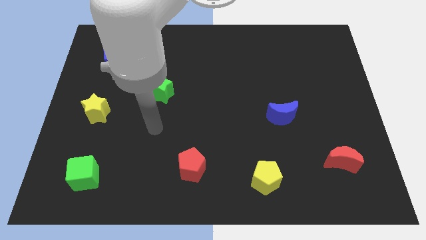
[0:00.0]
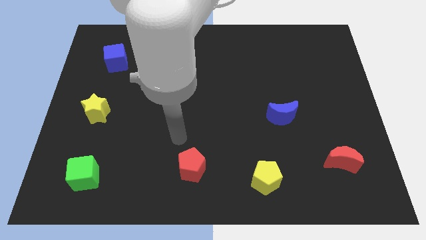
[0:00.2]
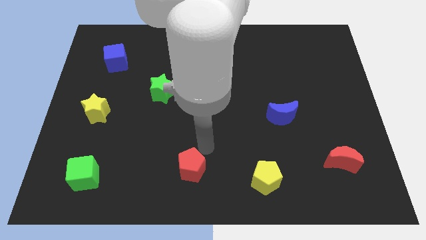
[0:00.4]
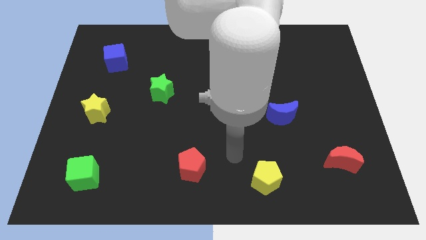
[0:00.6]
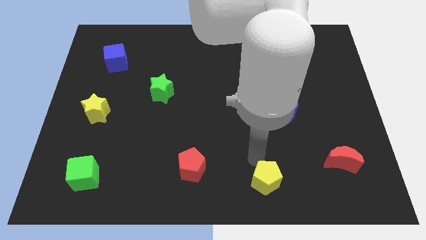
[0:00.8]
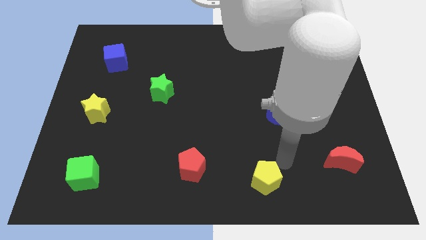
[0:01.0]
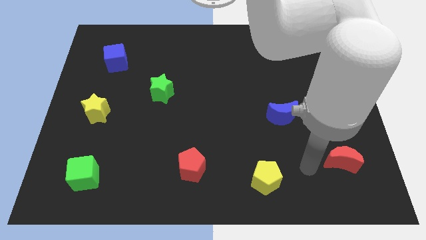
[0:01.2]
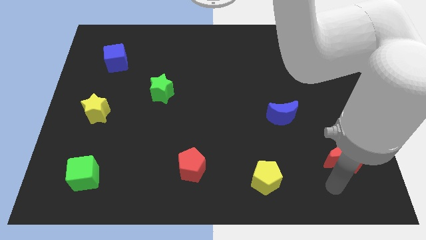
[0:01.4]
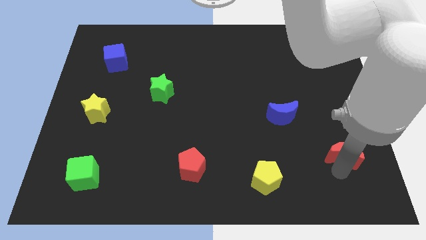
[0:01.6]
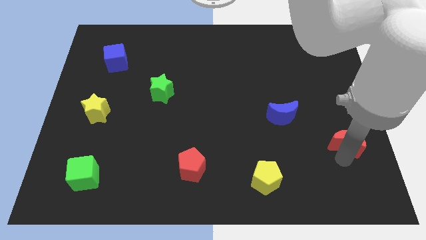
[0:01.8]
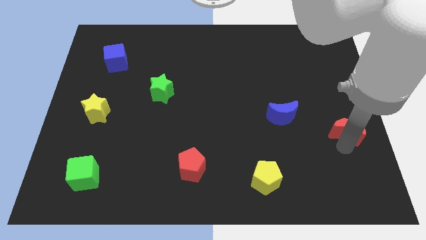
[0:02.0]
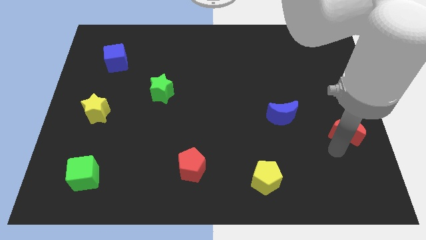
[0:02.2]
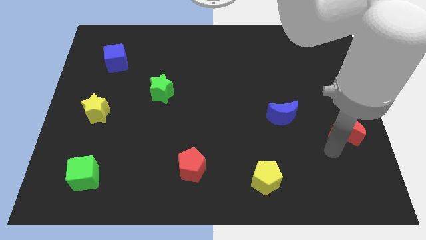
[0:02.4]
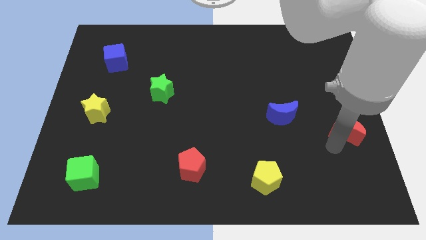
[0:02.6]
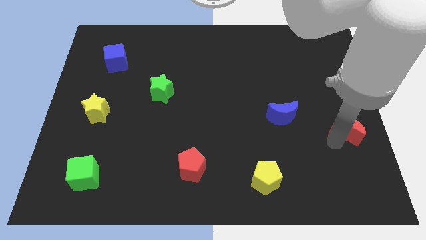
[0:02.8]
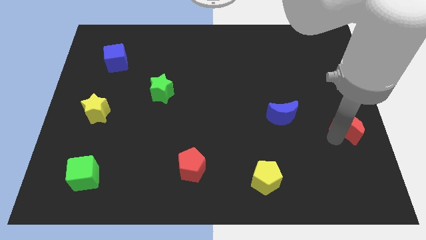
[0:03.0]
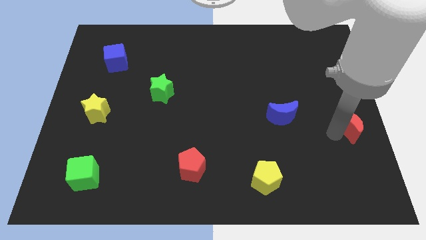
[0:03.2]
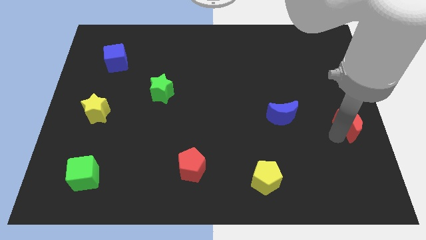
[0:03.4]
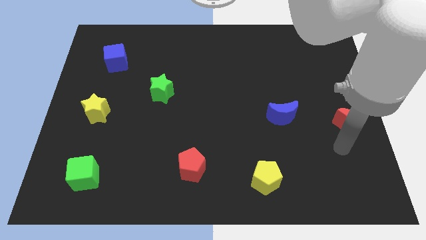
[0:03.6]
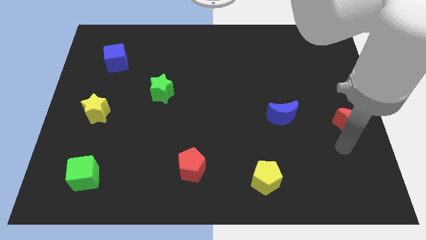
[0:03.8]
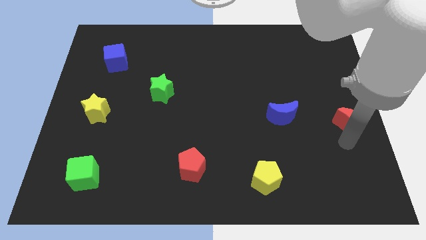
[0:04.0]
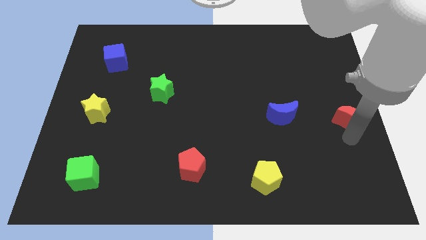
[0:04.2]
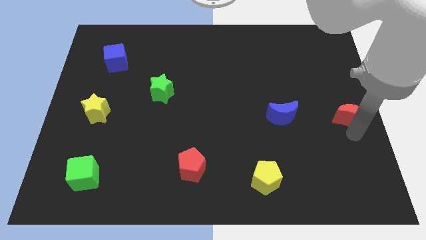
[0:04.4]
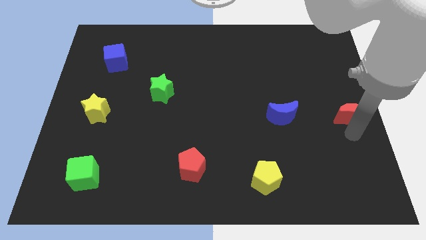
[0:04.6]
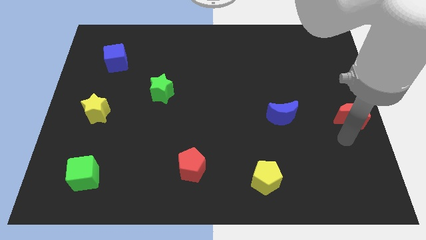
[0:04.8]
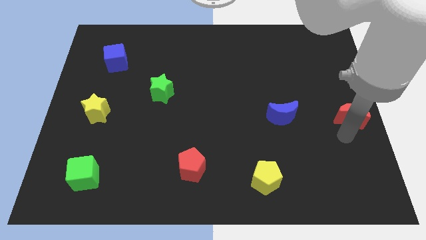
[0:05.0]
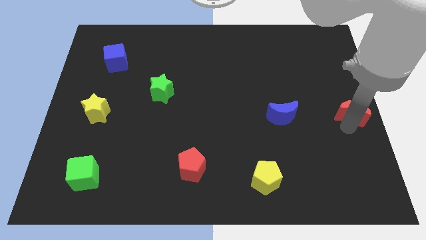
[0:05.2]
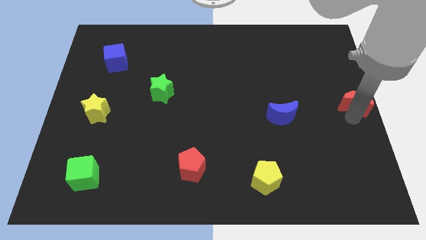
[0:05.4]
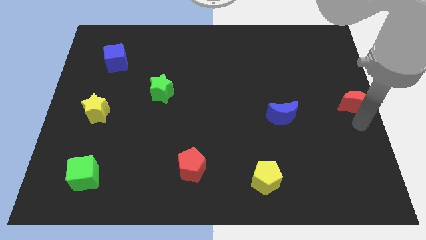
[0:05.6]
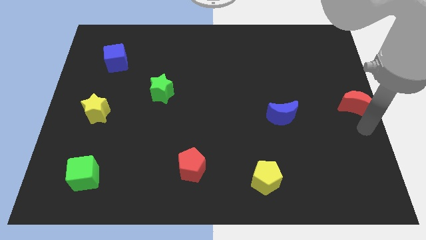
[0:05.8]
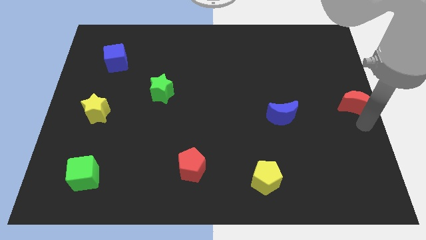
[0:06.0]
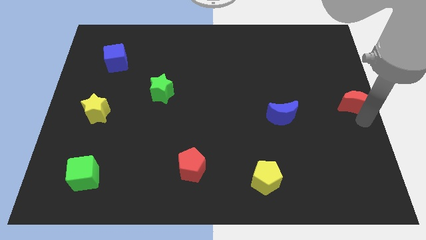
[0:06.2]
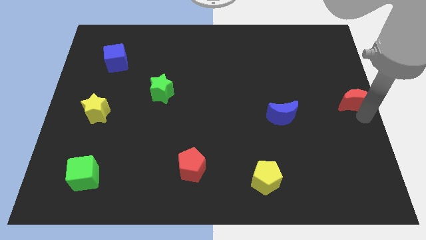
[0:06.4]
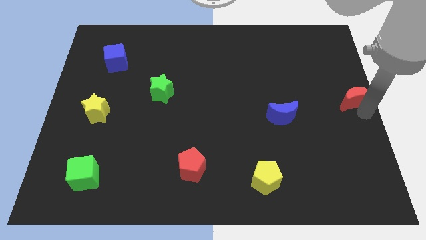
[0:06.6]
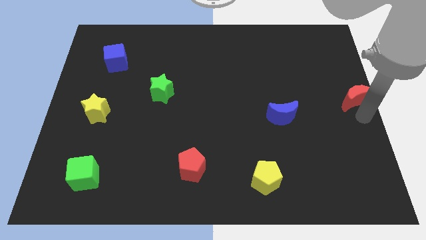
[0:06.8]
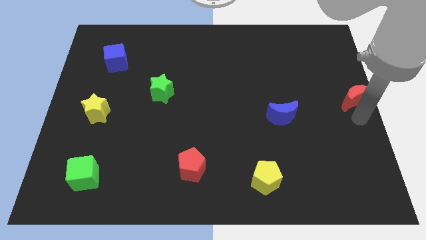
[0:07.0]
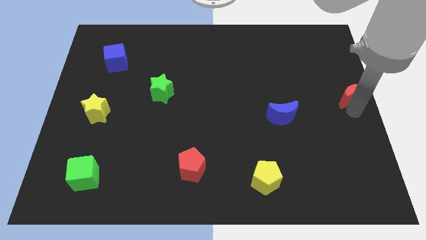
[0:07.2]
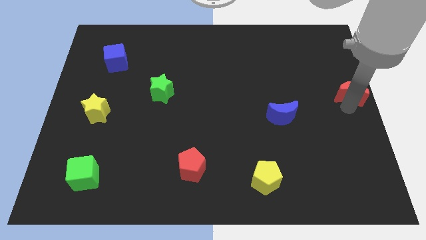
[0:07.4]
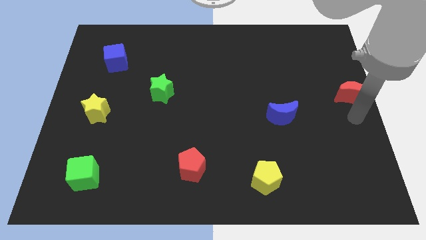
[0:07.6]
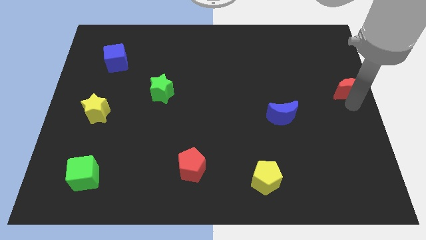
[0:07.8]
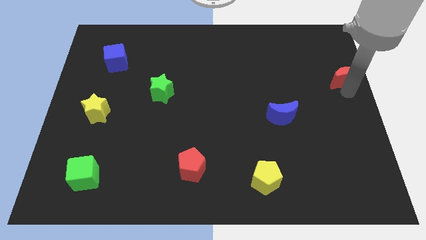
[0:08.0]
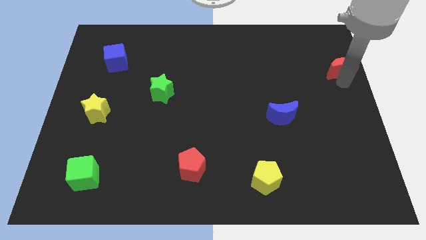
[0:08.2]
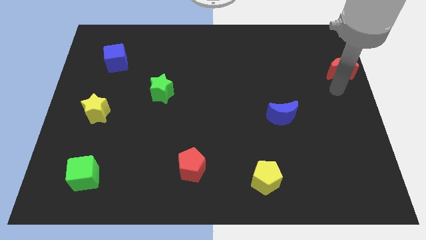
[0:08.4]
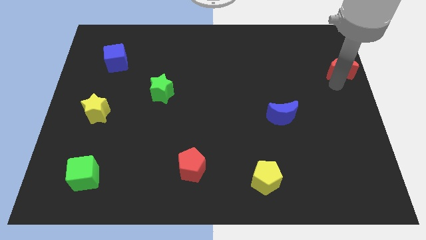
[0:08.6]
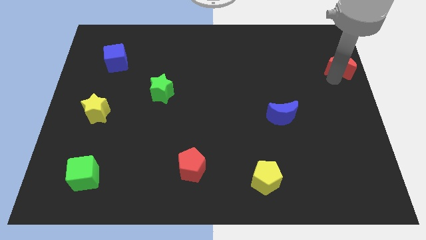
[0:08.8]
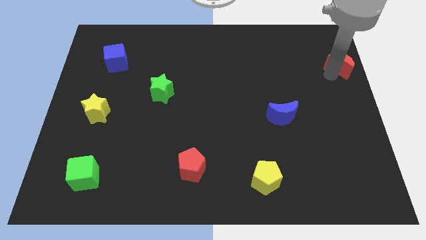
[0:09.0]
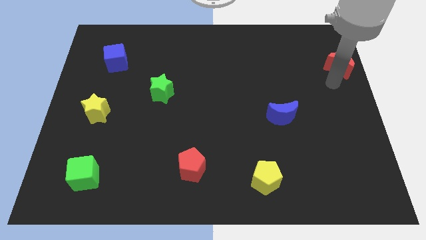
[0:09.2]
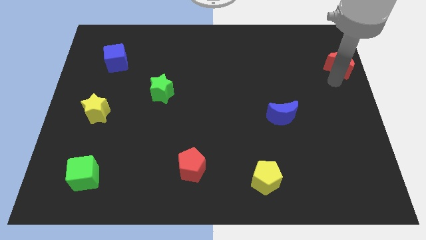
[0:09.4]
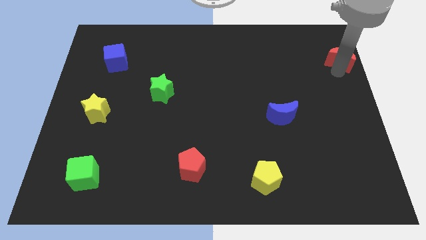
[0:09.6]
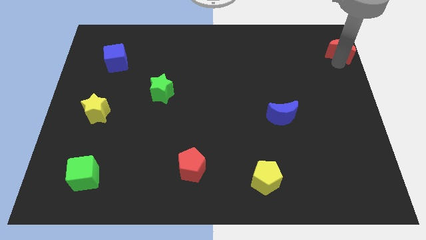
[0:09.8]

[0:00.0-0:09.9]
move the red moon to the top right corner

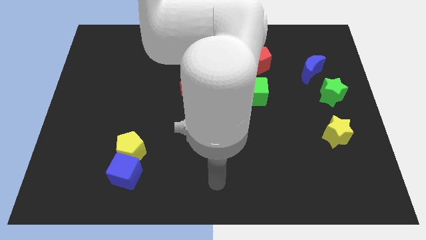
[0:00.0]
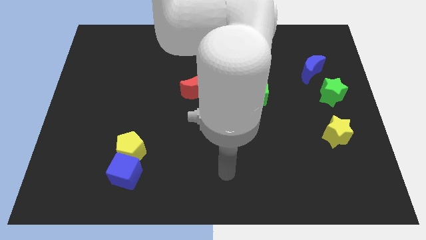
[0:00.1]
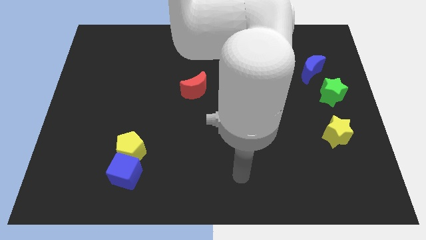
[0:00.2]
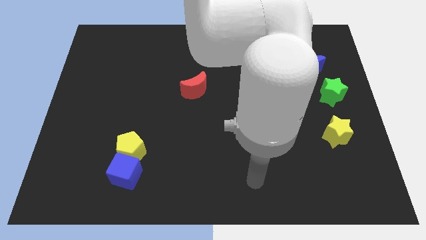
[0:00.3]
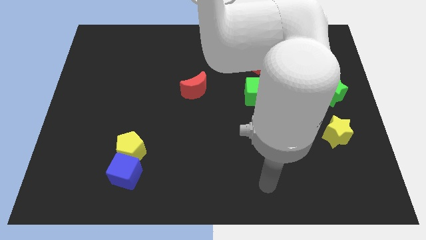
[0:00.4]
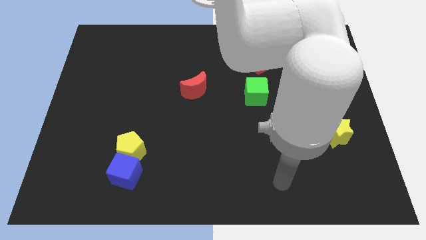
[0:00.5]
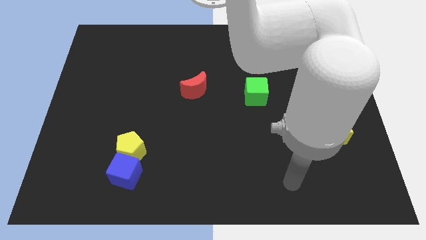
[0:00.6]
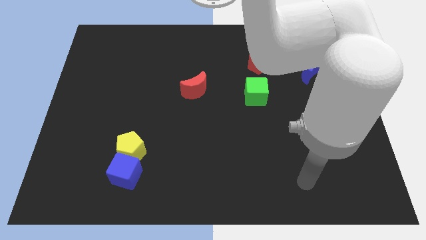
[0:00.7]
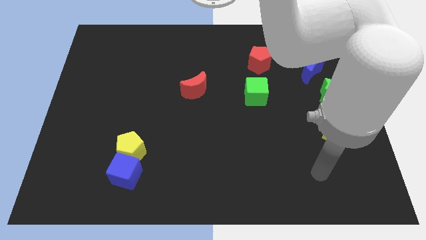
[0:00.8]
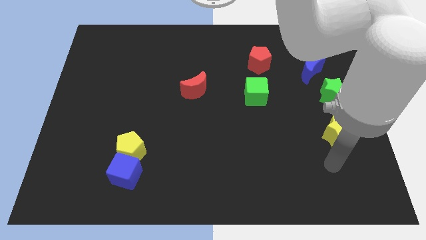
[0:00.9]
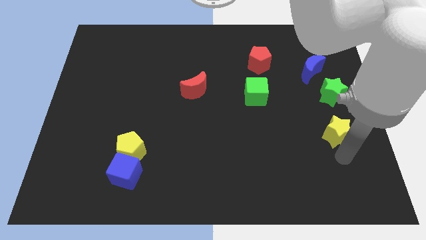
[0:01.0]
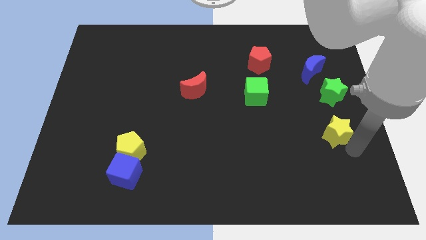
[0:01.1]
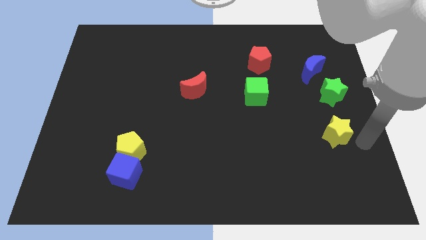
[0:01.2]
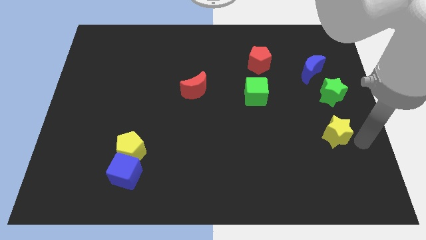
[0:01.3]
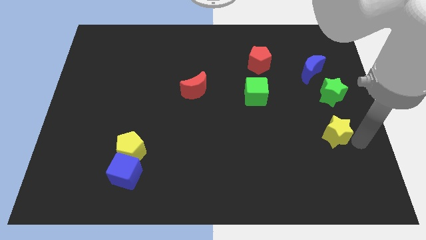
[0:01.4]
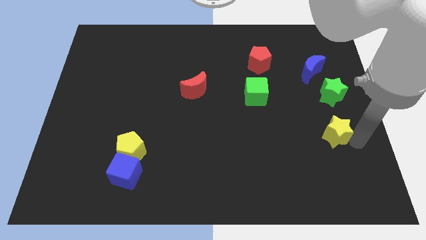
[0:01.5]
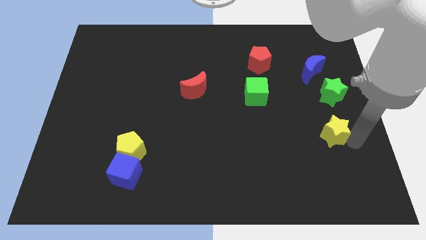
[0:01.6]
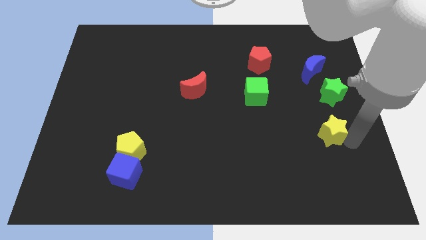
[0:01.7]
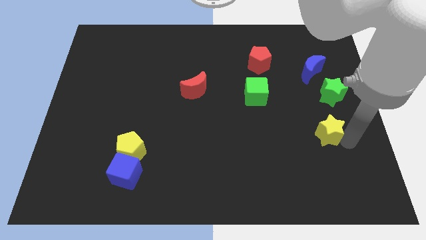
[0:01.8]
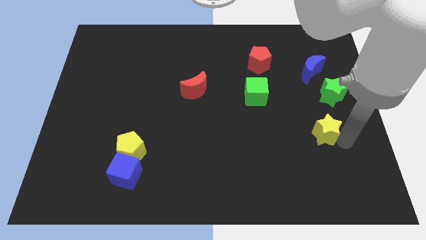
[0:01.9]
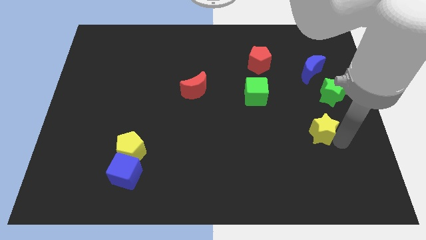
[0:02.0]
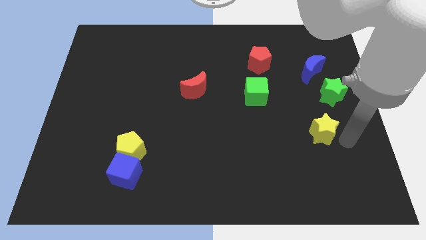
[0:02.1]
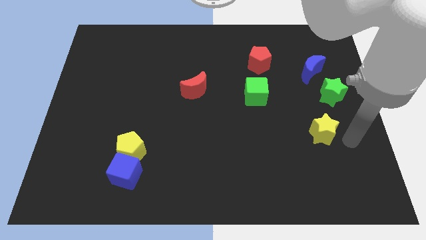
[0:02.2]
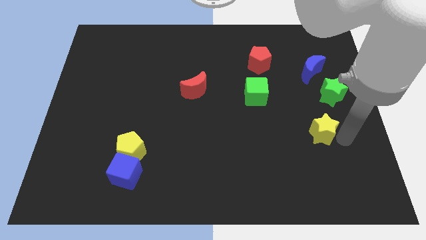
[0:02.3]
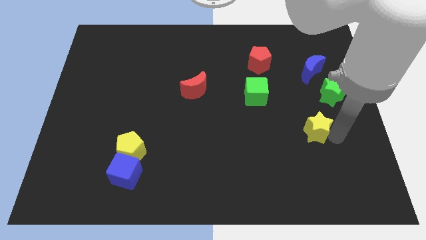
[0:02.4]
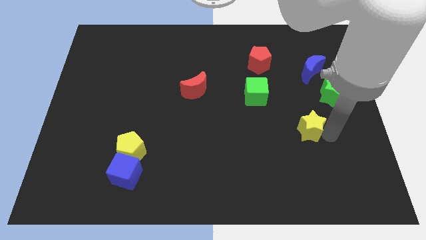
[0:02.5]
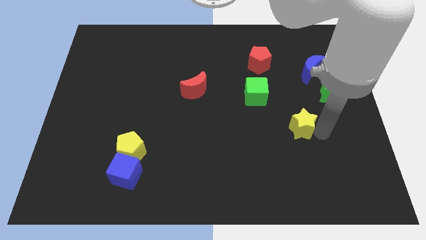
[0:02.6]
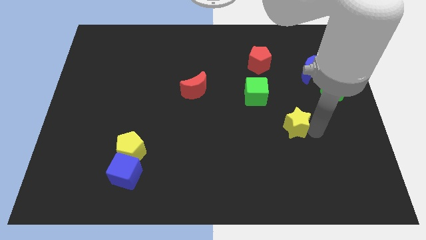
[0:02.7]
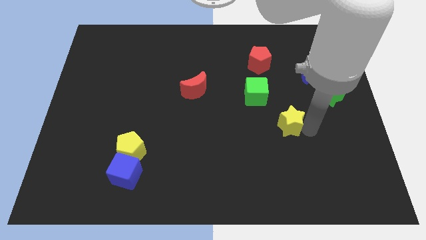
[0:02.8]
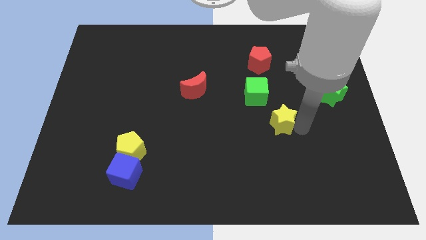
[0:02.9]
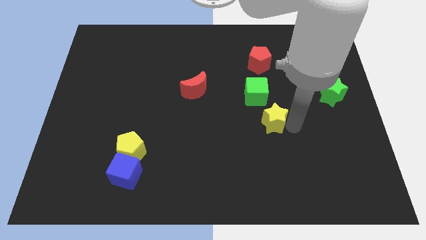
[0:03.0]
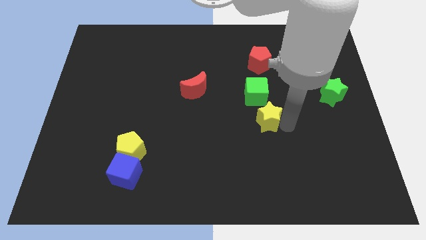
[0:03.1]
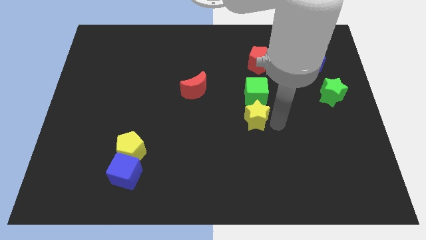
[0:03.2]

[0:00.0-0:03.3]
put the yellow star to the center

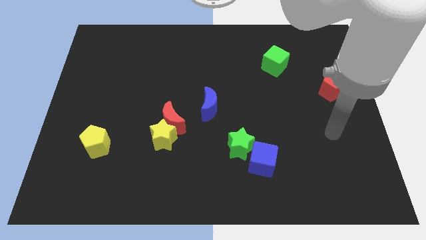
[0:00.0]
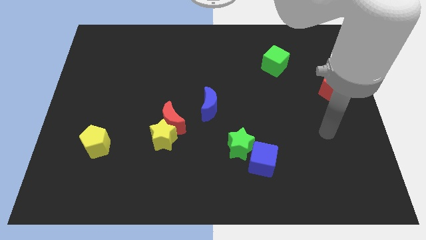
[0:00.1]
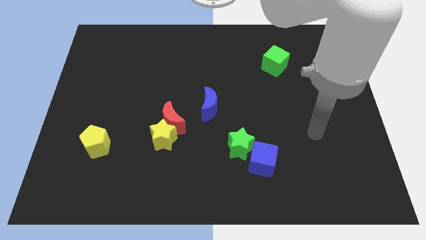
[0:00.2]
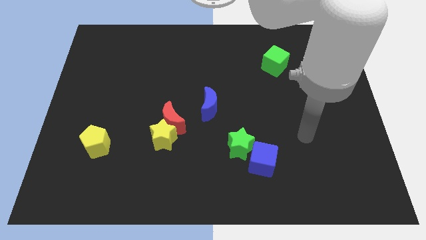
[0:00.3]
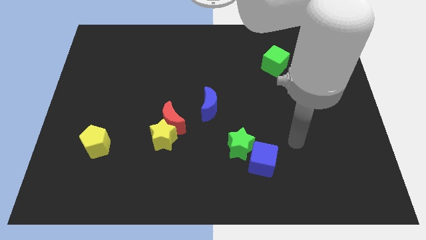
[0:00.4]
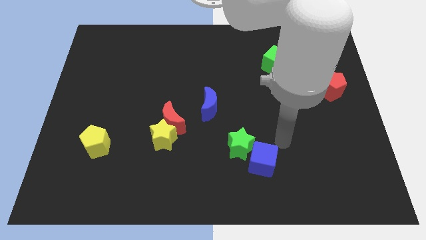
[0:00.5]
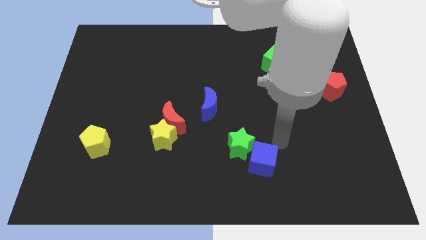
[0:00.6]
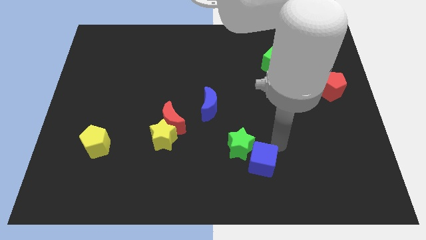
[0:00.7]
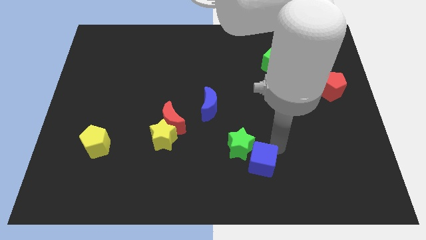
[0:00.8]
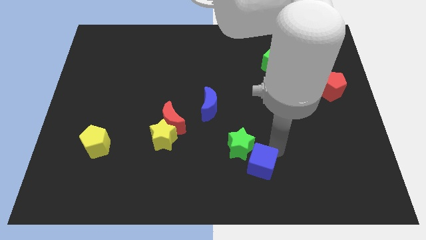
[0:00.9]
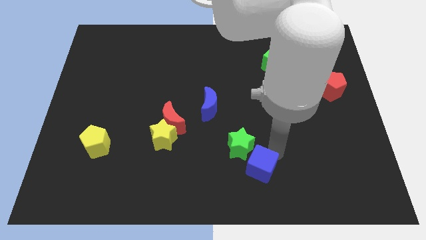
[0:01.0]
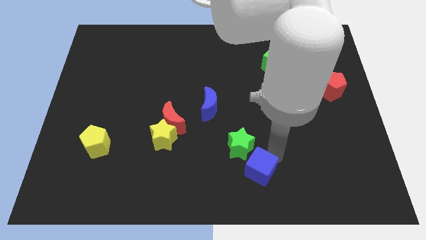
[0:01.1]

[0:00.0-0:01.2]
push the blue cube to the bottom side
